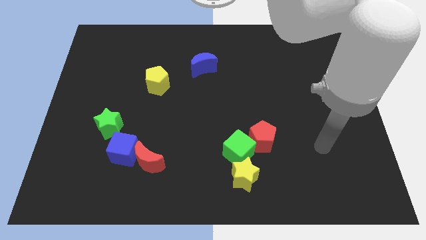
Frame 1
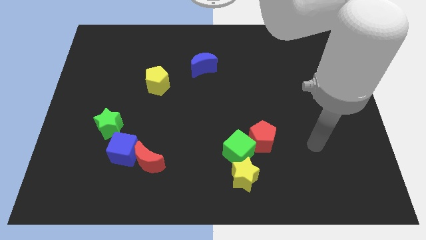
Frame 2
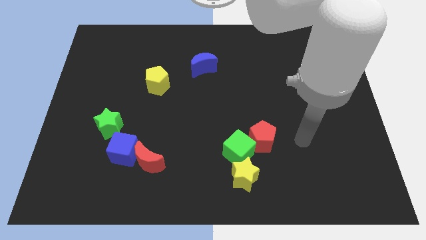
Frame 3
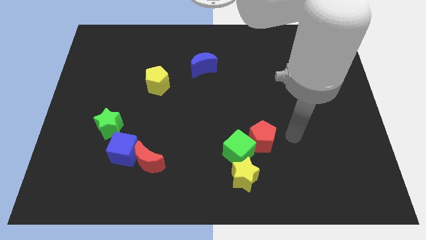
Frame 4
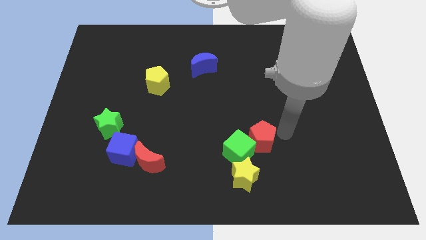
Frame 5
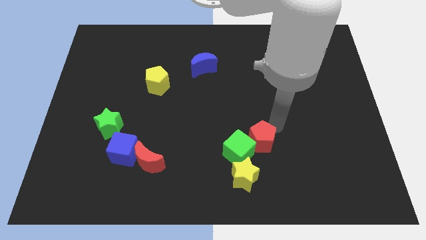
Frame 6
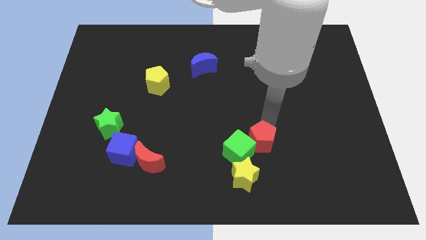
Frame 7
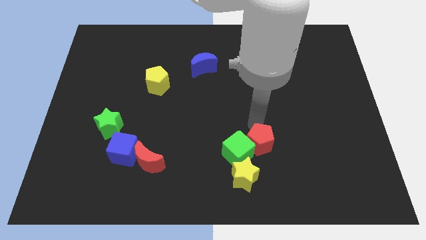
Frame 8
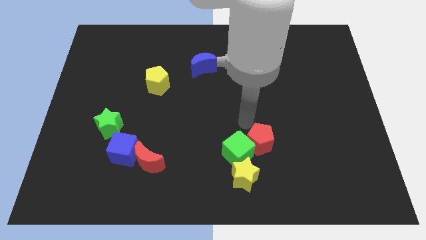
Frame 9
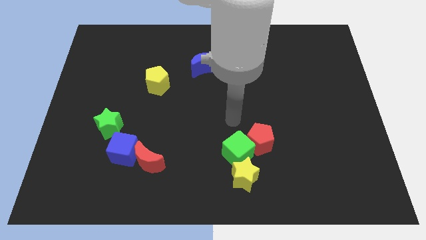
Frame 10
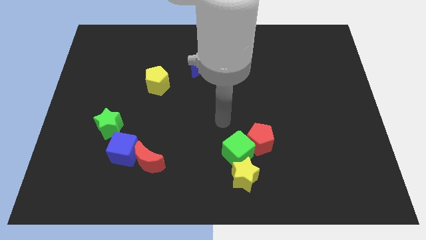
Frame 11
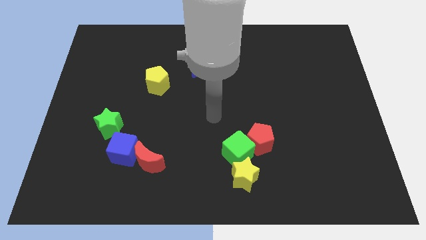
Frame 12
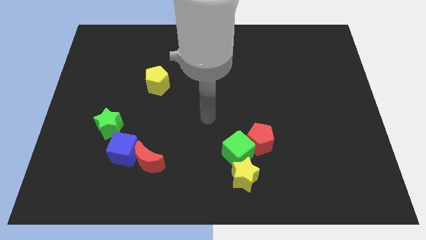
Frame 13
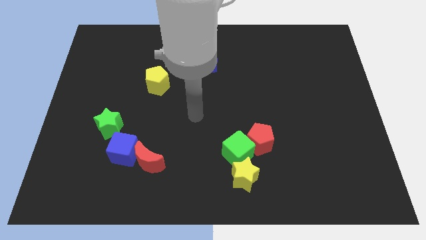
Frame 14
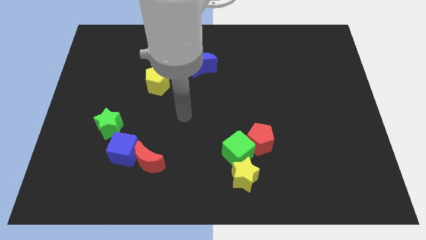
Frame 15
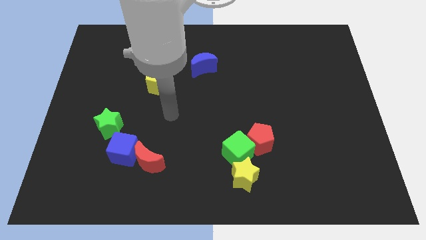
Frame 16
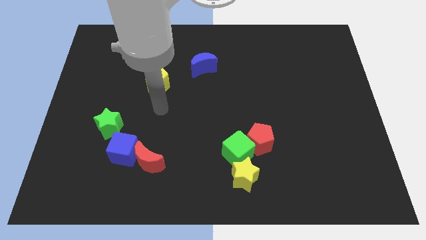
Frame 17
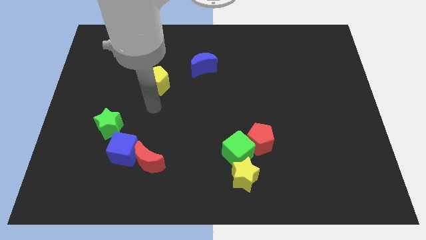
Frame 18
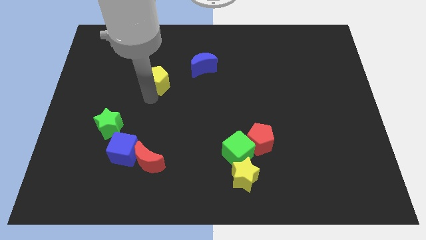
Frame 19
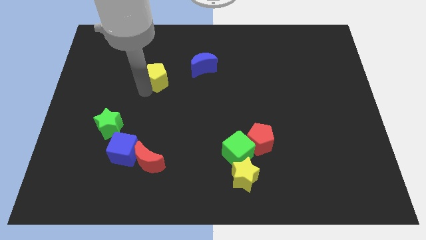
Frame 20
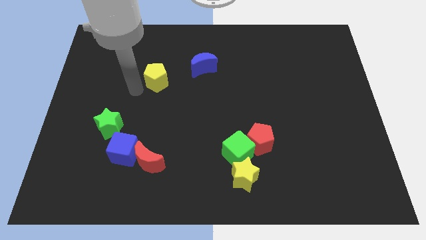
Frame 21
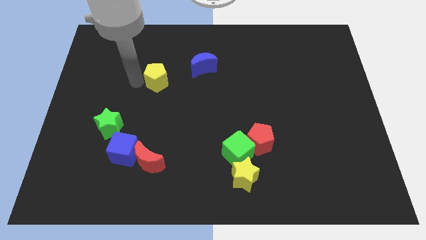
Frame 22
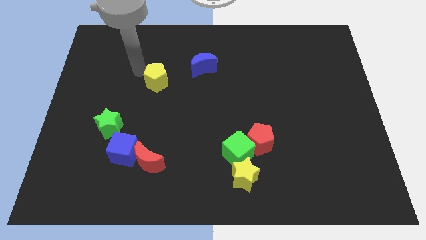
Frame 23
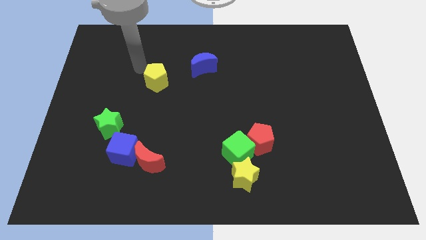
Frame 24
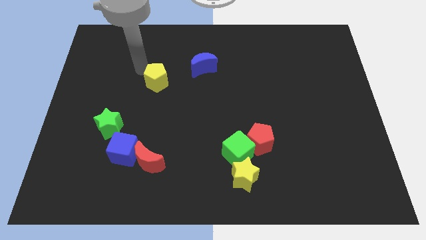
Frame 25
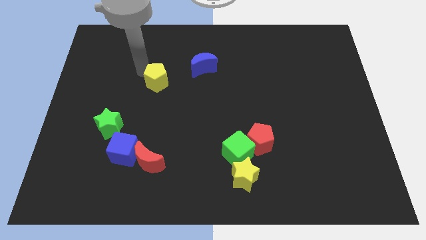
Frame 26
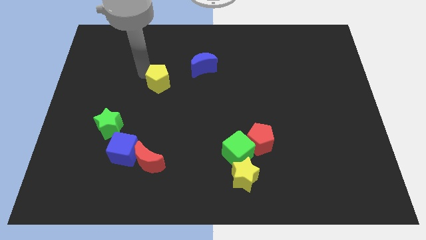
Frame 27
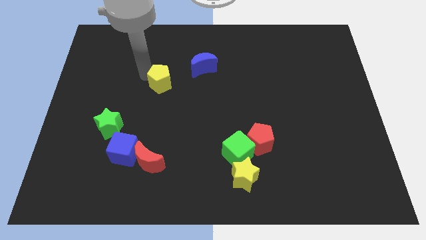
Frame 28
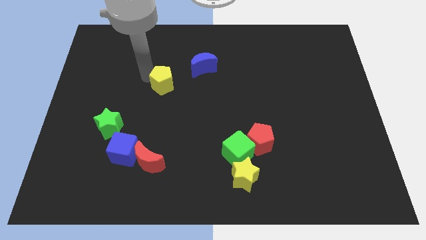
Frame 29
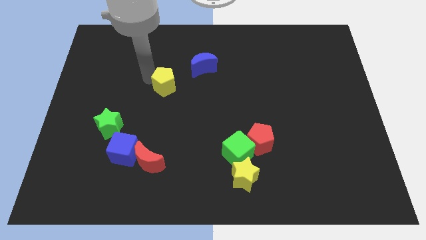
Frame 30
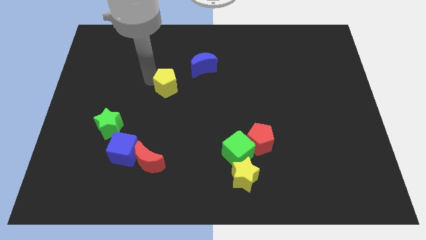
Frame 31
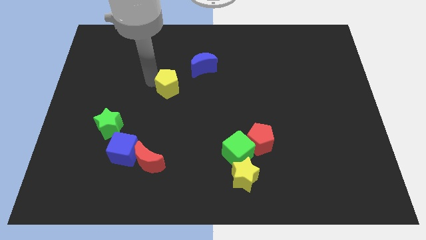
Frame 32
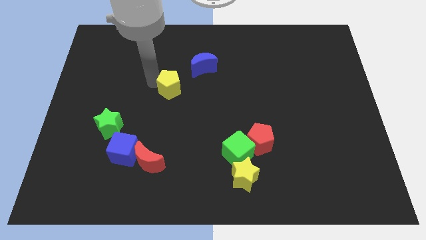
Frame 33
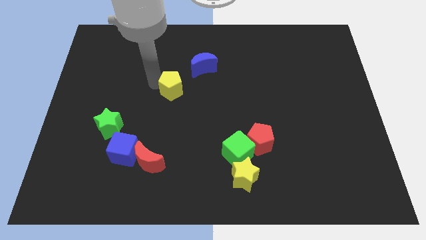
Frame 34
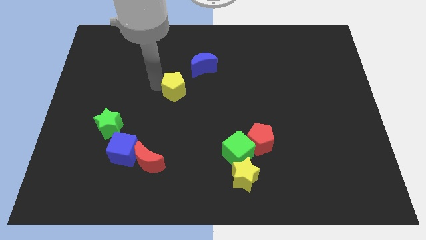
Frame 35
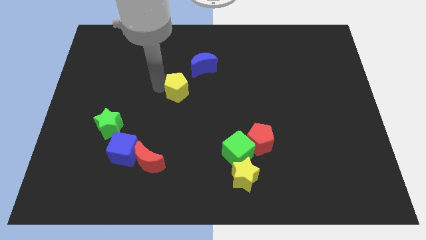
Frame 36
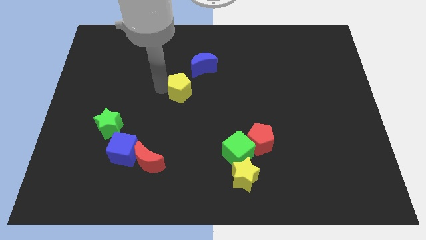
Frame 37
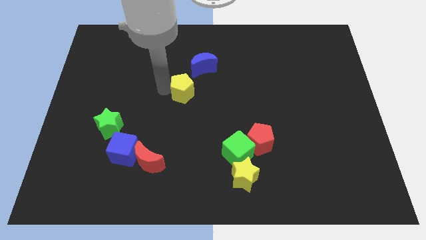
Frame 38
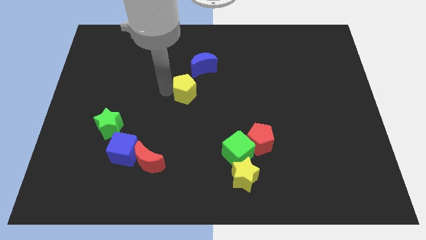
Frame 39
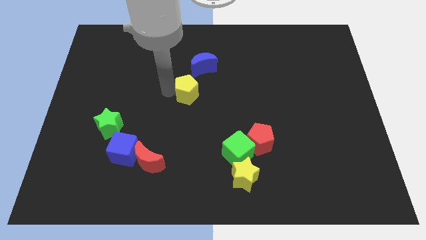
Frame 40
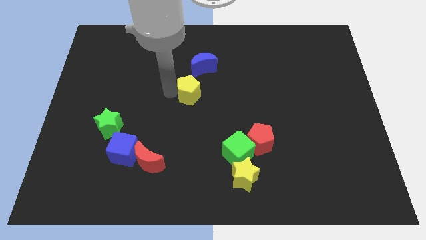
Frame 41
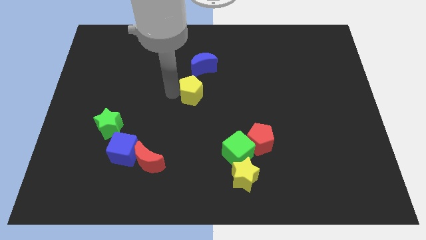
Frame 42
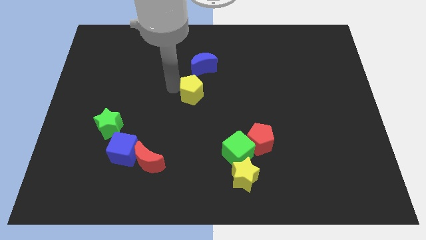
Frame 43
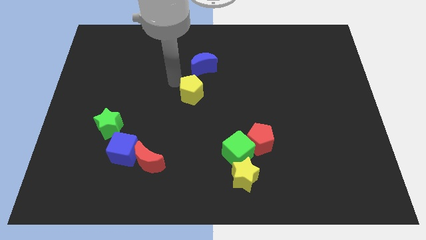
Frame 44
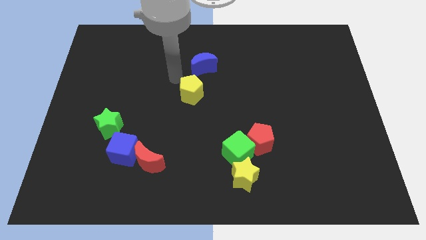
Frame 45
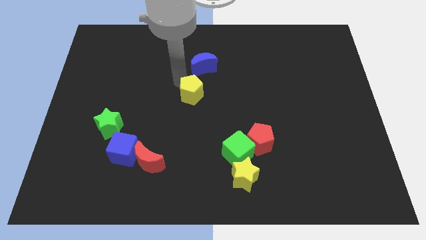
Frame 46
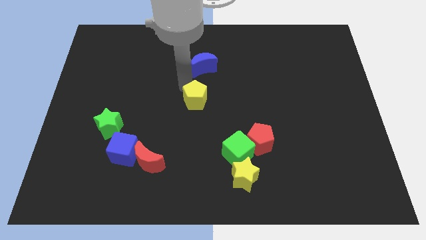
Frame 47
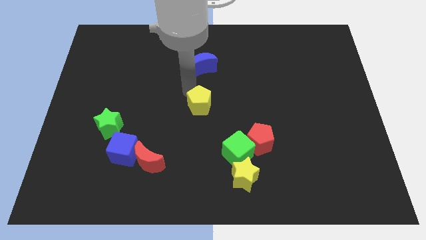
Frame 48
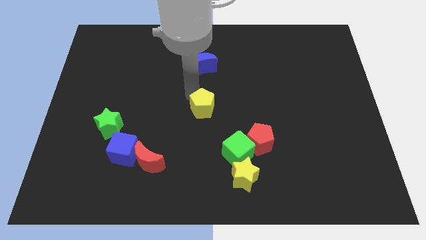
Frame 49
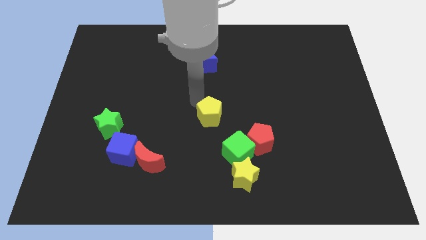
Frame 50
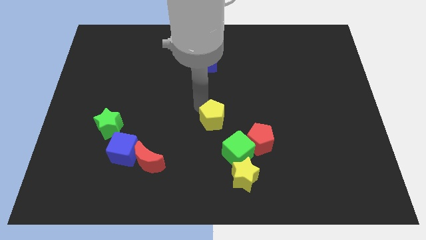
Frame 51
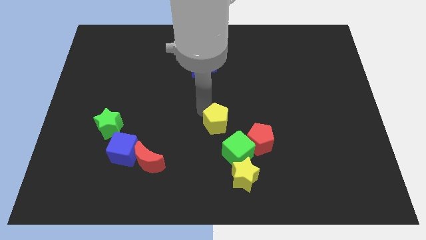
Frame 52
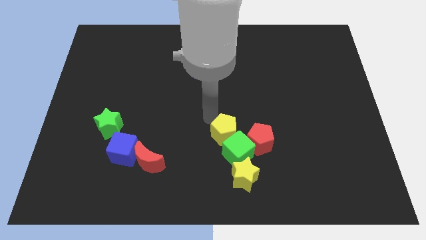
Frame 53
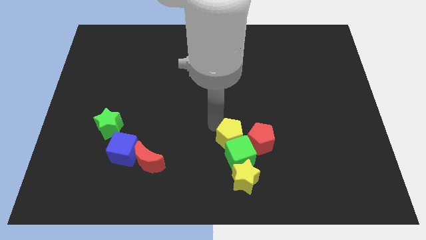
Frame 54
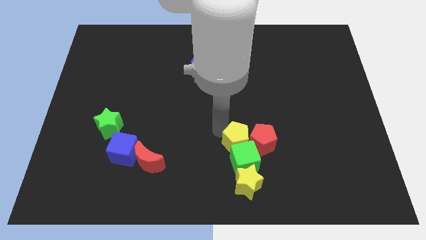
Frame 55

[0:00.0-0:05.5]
slide the yellow pentagon close to the red pentagon

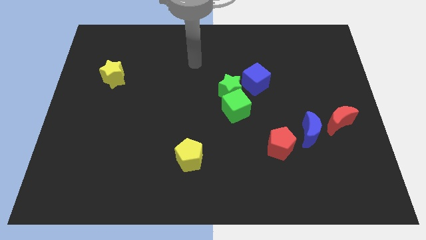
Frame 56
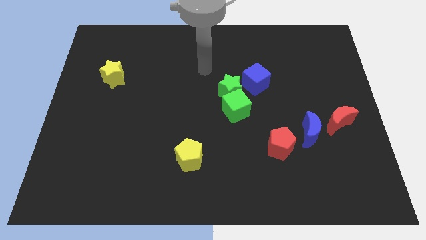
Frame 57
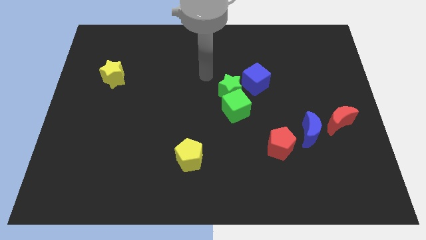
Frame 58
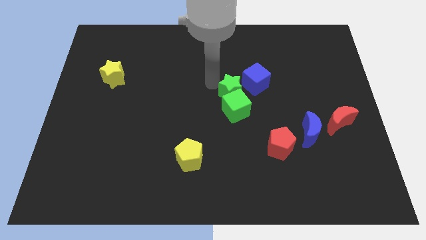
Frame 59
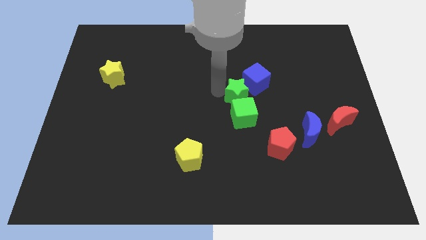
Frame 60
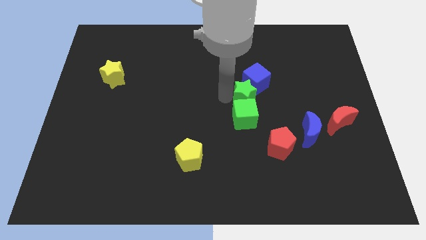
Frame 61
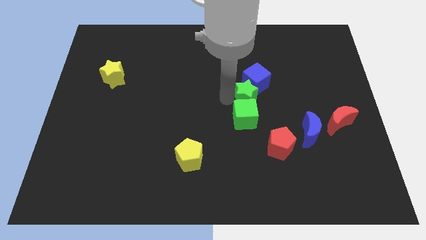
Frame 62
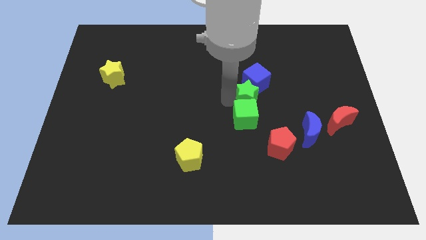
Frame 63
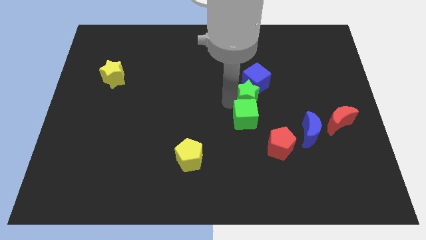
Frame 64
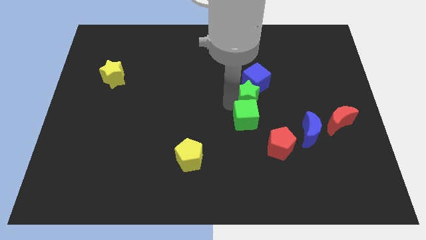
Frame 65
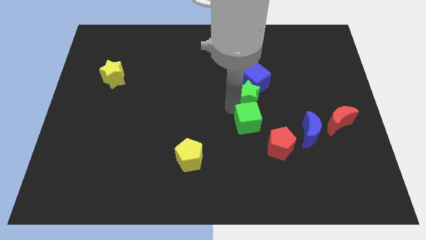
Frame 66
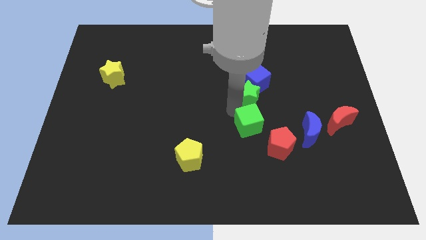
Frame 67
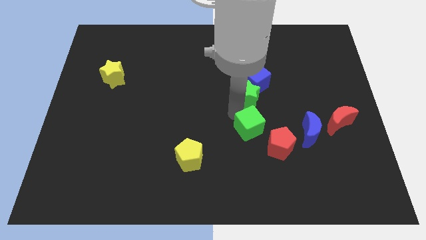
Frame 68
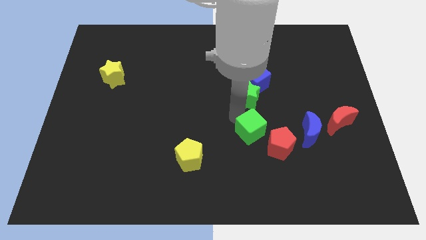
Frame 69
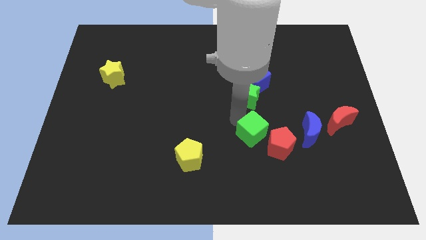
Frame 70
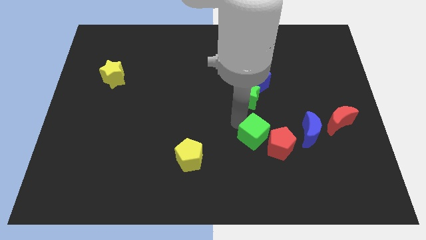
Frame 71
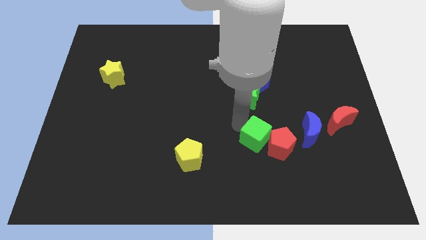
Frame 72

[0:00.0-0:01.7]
move the green cube to the red pentagon

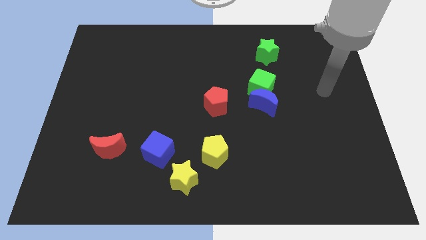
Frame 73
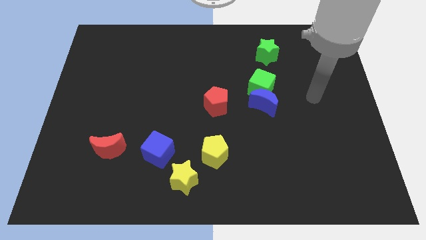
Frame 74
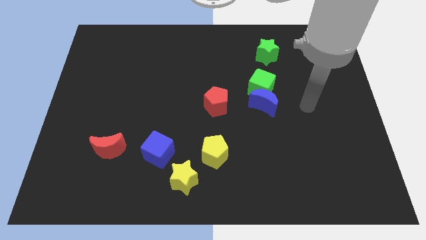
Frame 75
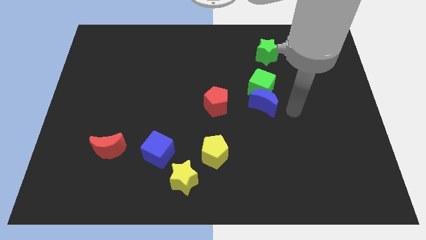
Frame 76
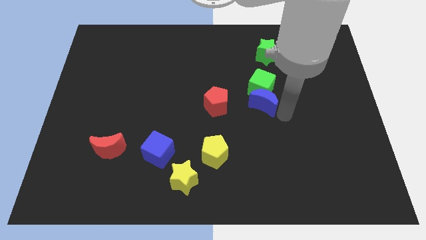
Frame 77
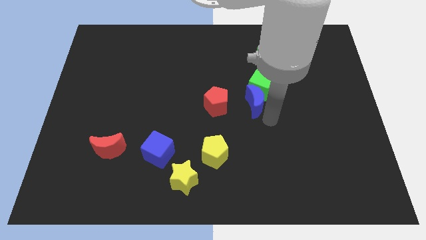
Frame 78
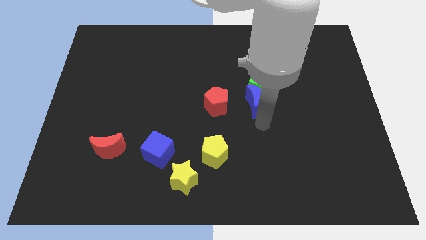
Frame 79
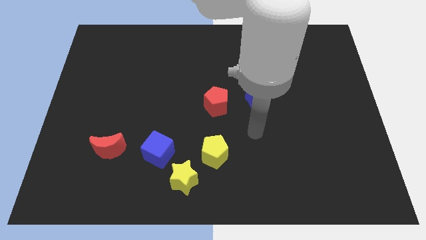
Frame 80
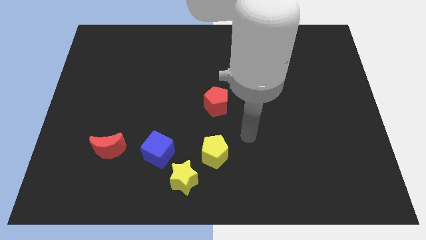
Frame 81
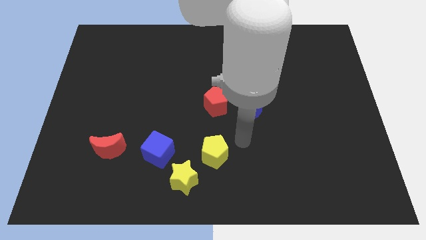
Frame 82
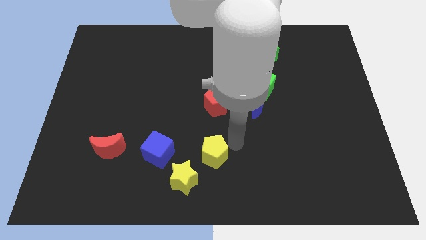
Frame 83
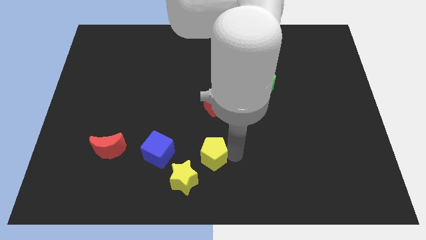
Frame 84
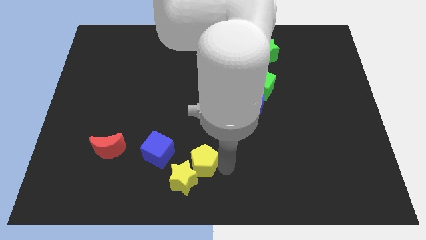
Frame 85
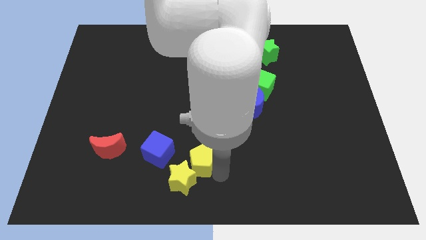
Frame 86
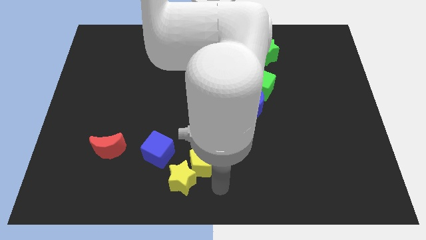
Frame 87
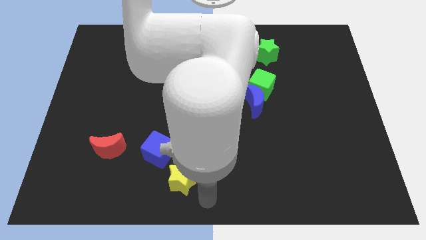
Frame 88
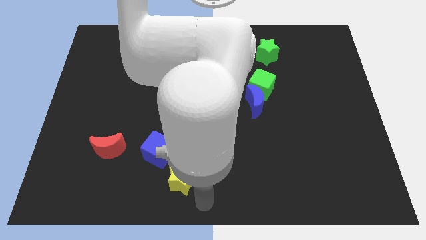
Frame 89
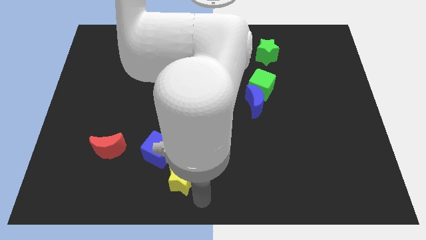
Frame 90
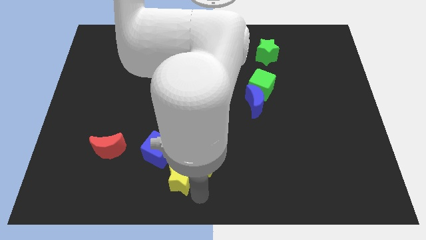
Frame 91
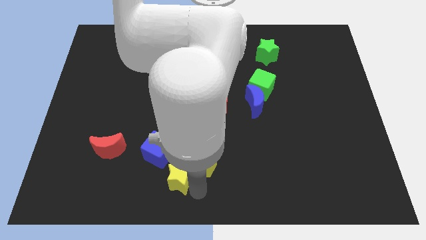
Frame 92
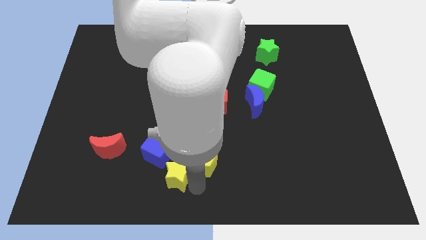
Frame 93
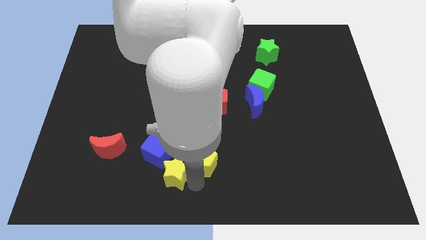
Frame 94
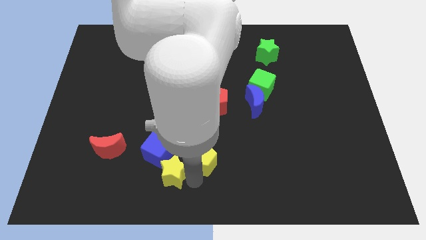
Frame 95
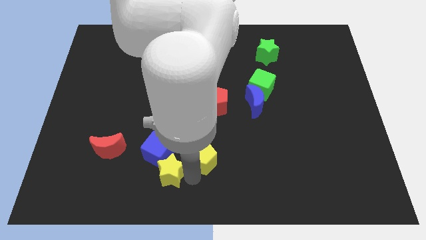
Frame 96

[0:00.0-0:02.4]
slide the yellow star next to the blue cube
